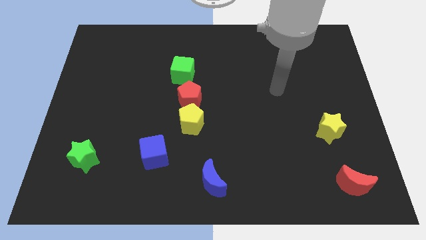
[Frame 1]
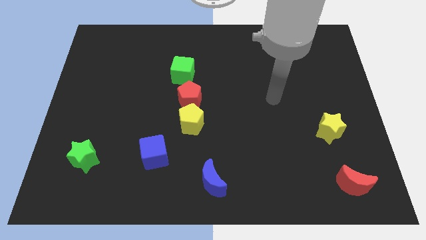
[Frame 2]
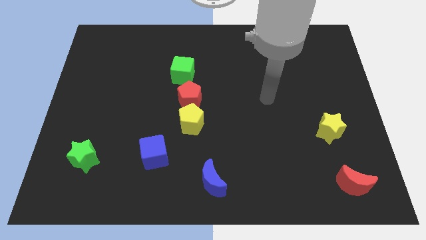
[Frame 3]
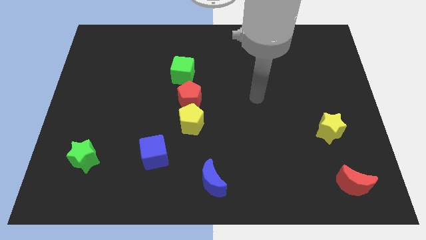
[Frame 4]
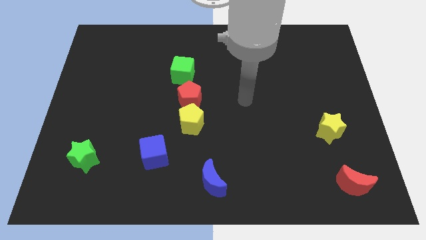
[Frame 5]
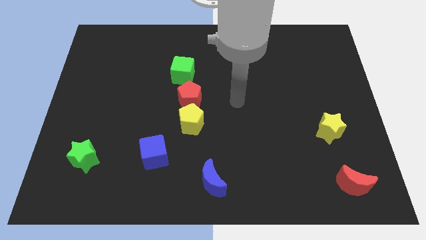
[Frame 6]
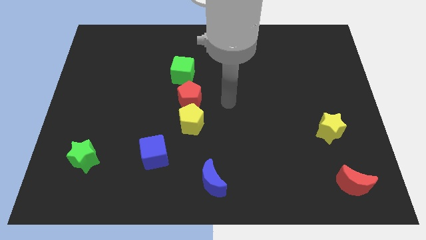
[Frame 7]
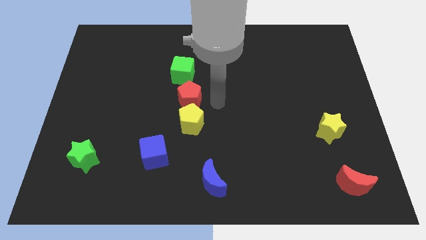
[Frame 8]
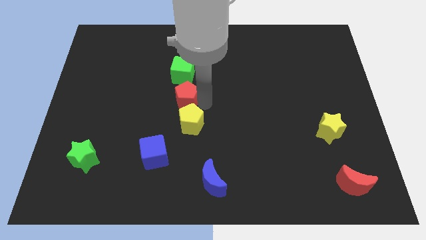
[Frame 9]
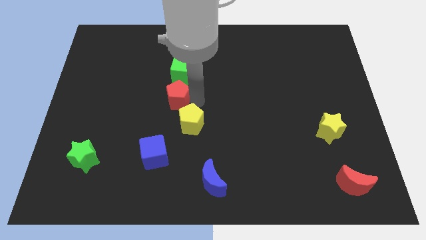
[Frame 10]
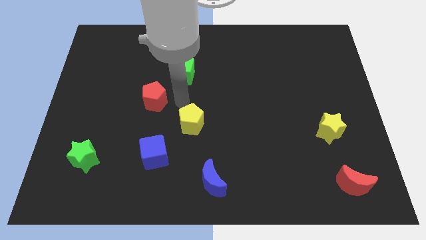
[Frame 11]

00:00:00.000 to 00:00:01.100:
separate the yellow pentagon from the red pentagon

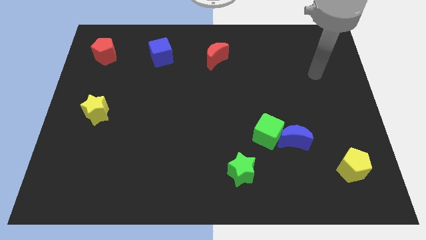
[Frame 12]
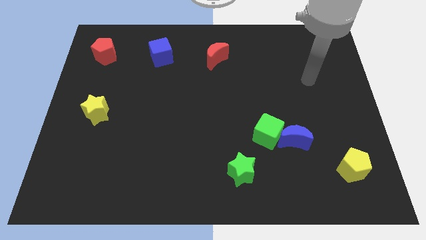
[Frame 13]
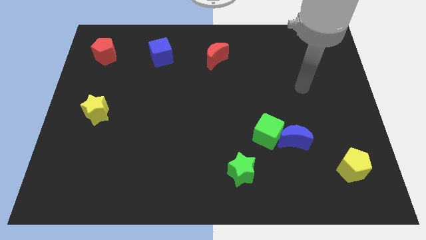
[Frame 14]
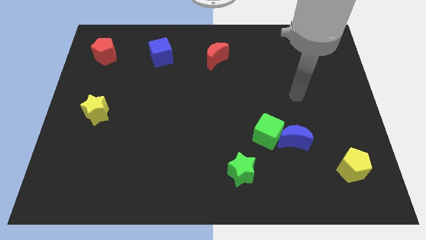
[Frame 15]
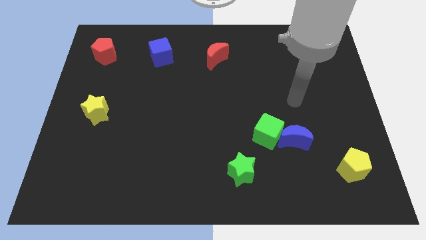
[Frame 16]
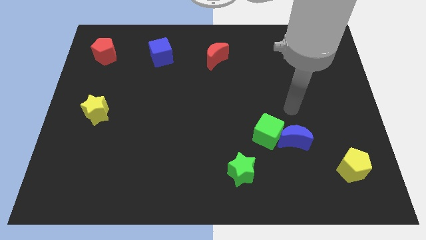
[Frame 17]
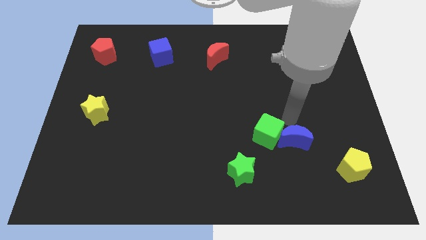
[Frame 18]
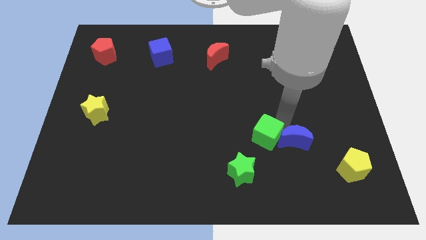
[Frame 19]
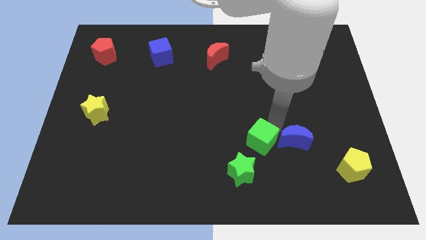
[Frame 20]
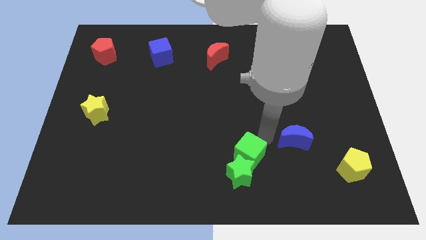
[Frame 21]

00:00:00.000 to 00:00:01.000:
separate the blue moon from the green cube

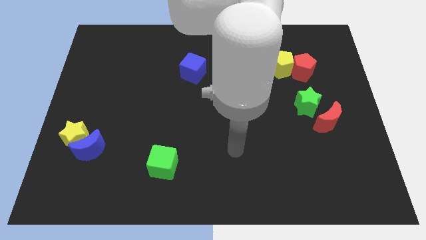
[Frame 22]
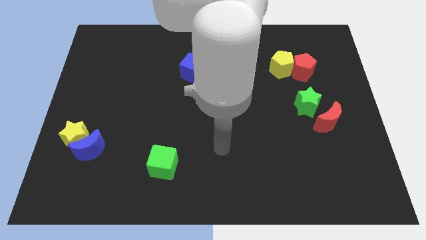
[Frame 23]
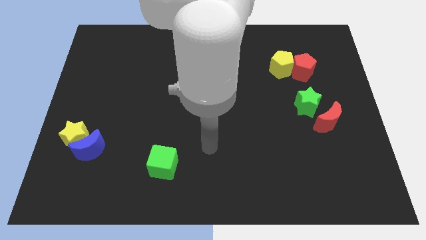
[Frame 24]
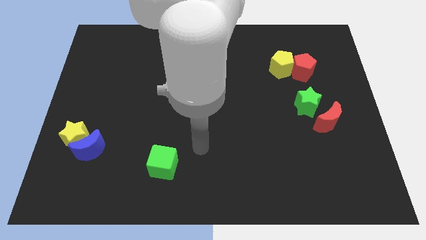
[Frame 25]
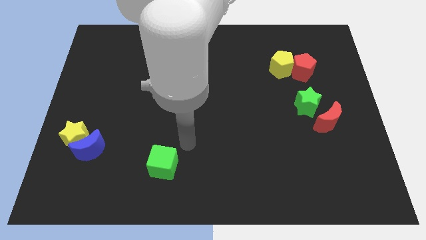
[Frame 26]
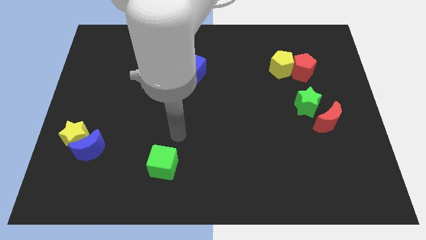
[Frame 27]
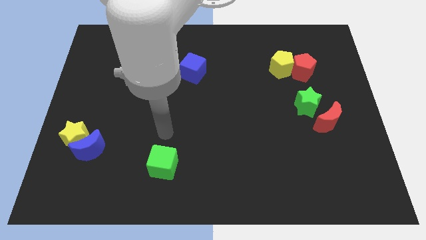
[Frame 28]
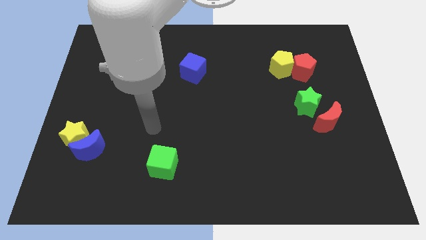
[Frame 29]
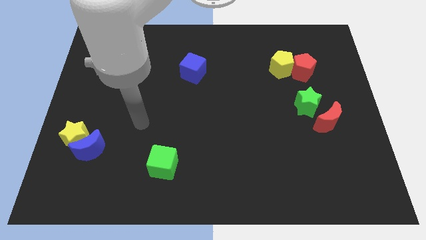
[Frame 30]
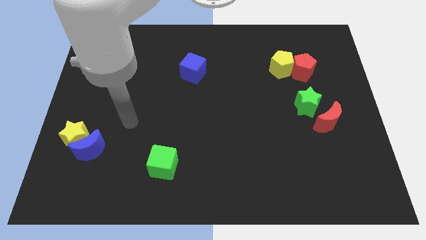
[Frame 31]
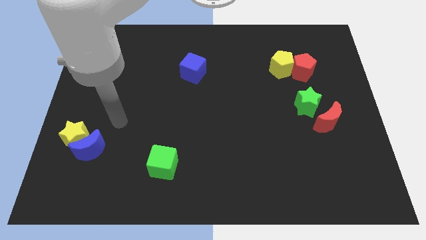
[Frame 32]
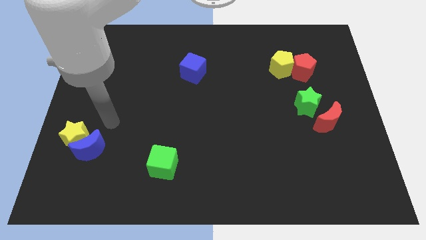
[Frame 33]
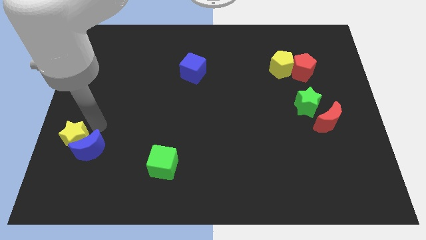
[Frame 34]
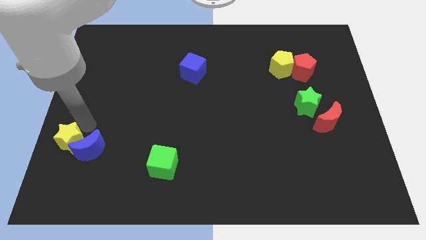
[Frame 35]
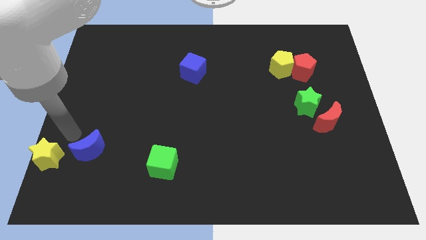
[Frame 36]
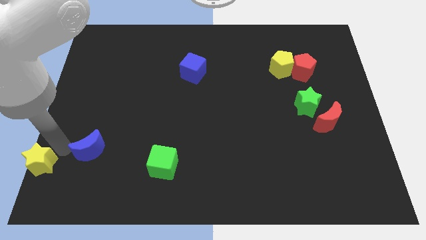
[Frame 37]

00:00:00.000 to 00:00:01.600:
move the blue moon away from the yellow star

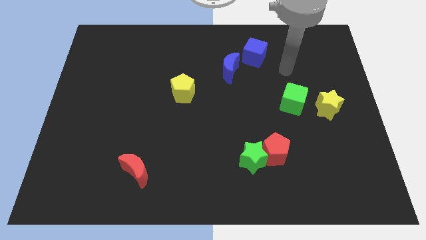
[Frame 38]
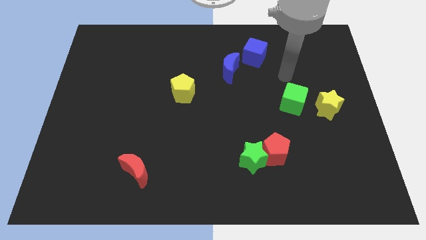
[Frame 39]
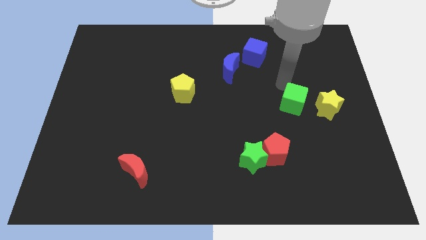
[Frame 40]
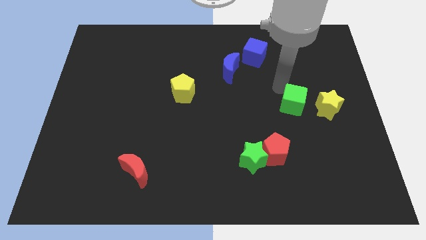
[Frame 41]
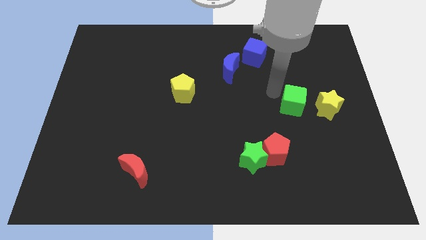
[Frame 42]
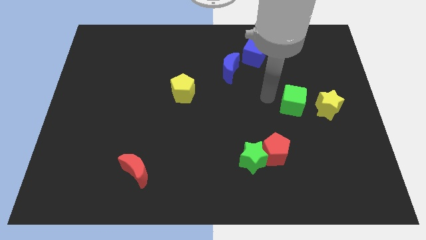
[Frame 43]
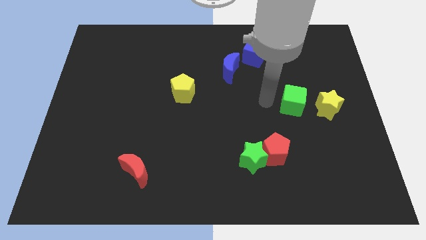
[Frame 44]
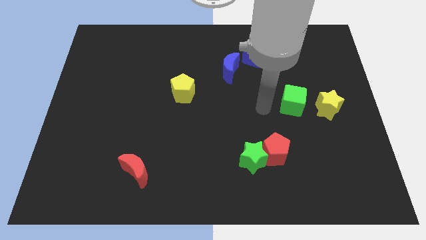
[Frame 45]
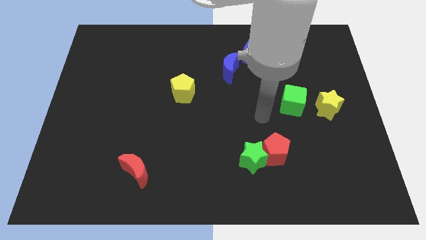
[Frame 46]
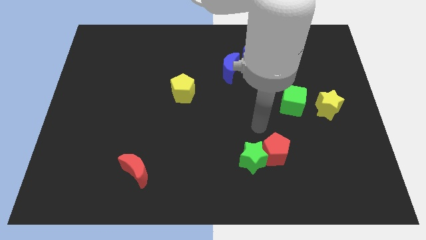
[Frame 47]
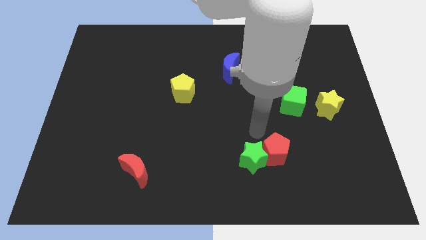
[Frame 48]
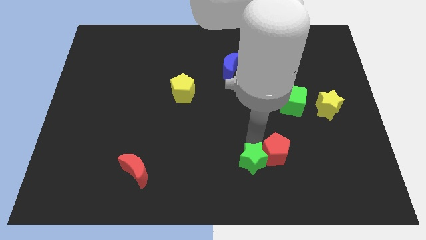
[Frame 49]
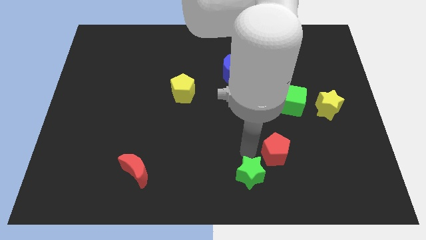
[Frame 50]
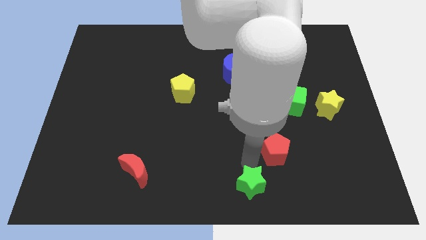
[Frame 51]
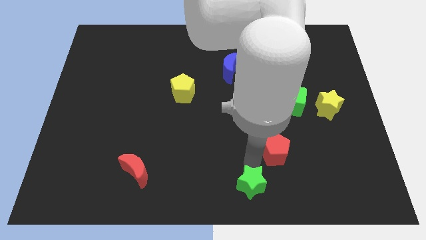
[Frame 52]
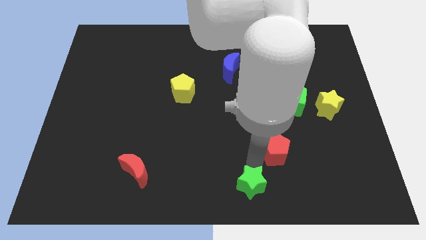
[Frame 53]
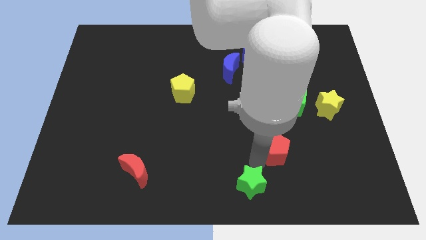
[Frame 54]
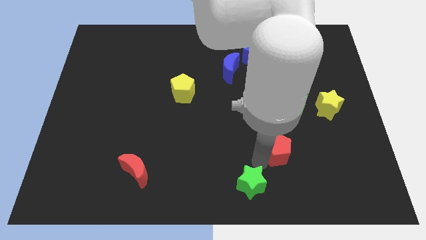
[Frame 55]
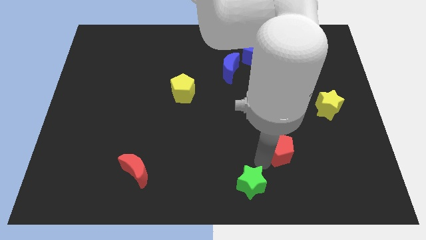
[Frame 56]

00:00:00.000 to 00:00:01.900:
separate the red pentagon from the green star

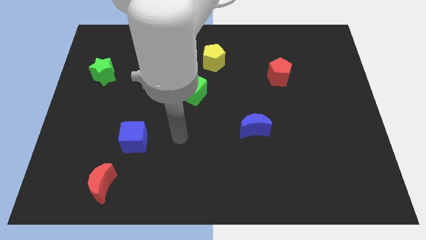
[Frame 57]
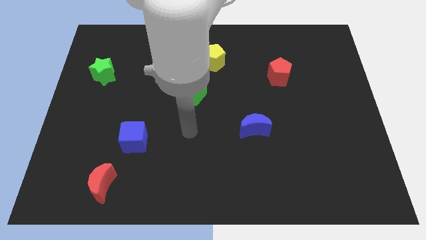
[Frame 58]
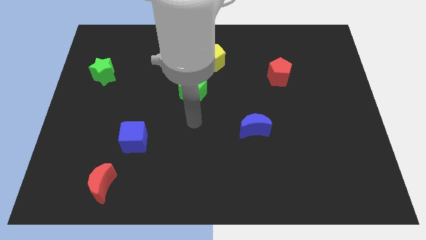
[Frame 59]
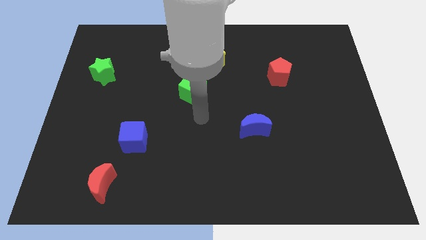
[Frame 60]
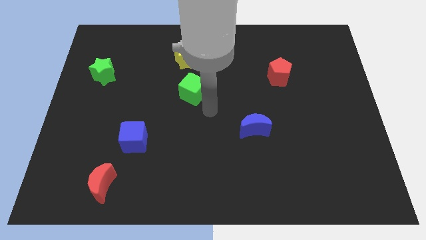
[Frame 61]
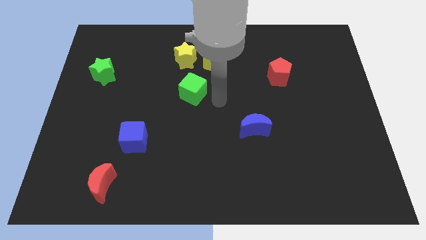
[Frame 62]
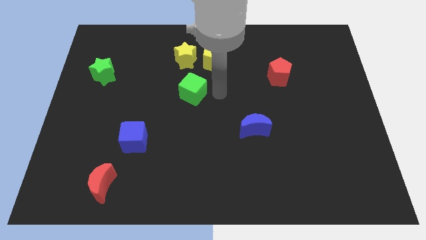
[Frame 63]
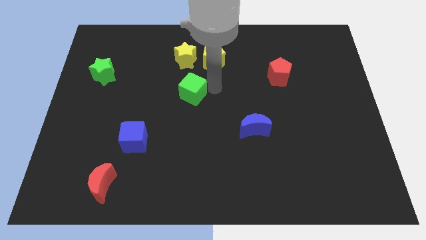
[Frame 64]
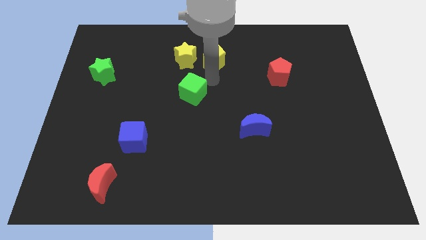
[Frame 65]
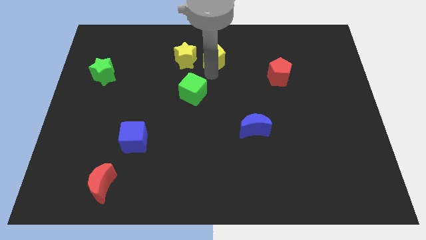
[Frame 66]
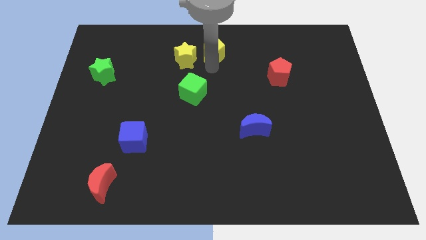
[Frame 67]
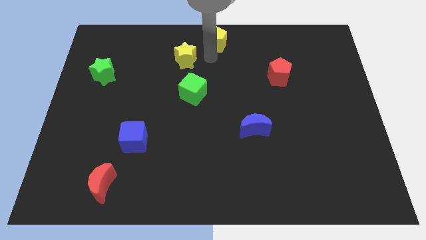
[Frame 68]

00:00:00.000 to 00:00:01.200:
separate the yellow star from the yellow pentagon

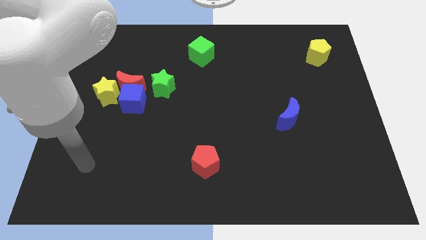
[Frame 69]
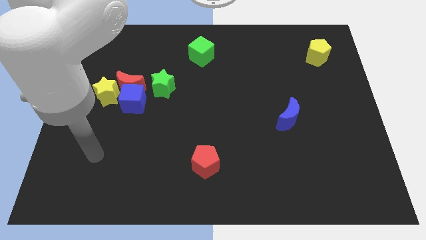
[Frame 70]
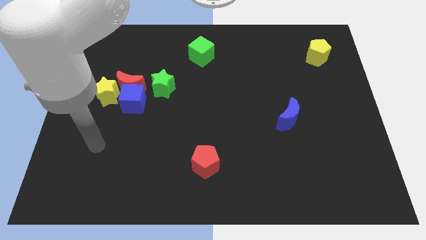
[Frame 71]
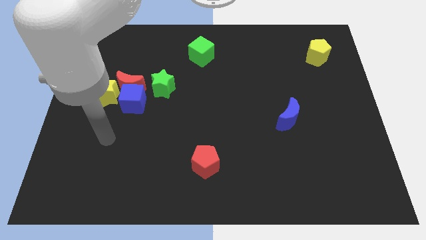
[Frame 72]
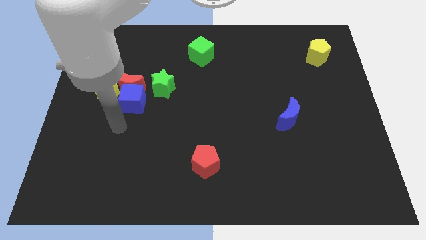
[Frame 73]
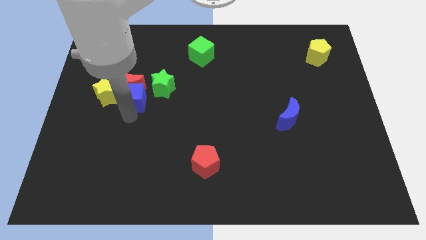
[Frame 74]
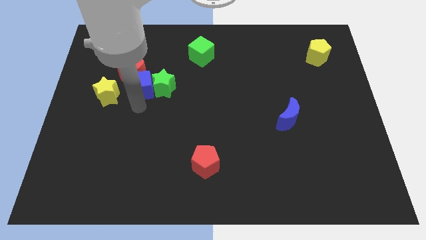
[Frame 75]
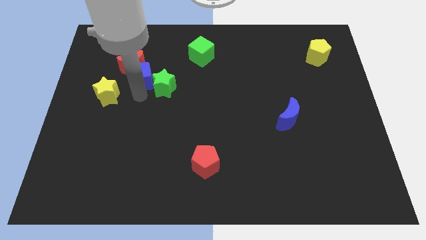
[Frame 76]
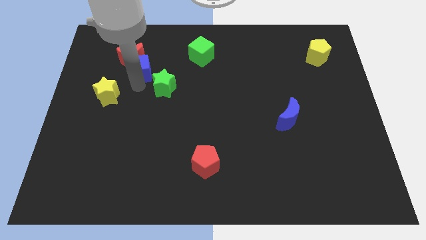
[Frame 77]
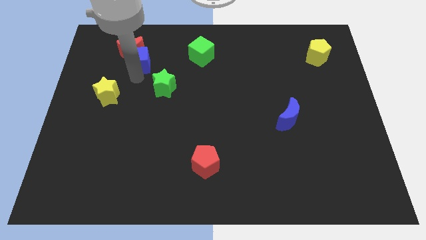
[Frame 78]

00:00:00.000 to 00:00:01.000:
pull the red moon apart from the blue cube, yellow star, and green star

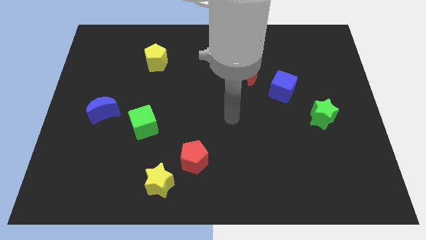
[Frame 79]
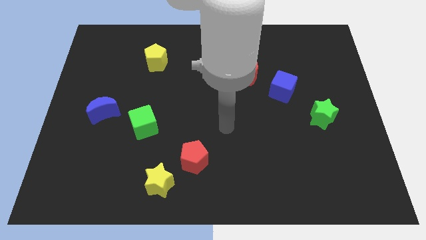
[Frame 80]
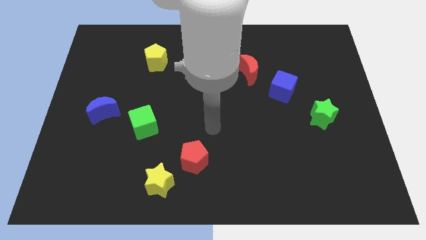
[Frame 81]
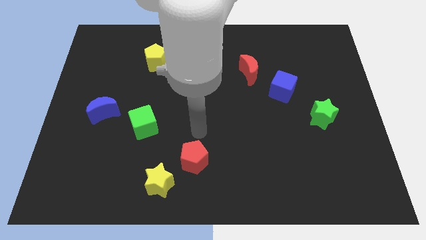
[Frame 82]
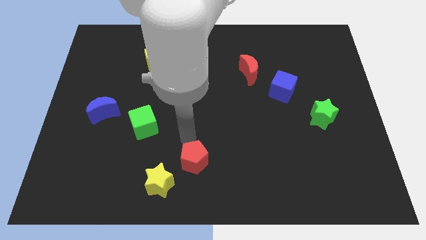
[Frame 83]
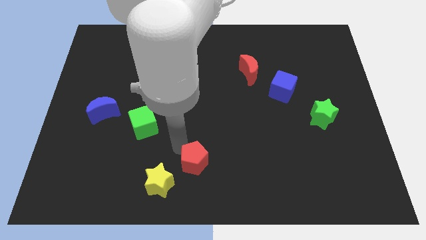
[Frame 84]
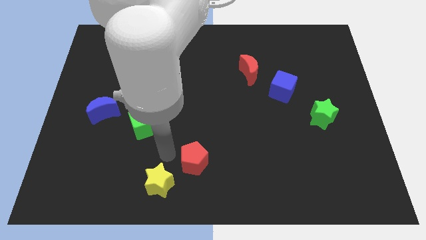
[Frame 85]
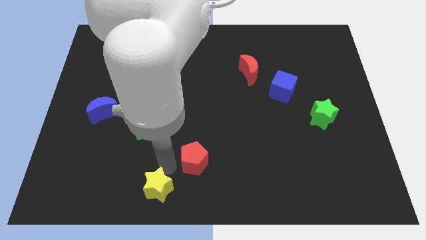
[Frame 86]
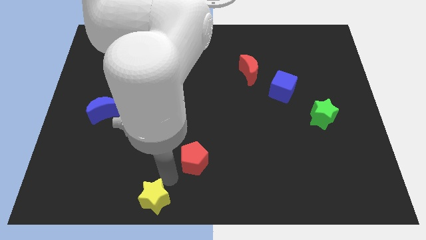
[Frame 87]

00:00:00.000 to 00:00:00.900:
separate the red pentagon from the yellow star

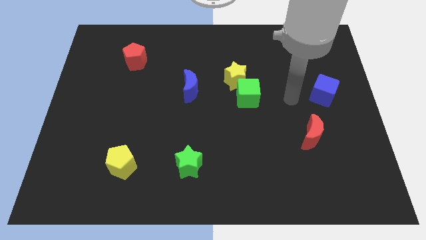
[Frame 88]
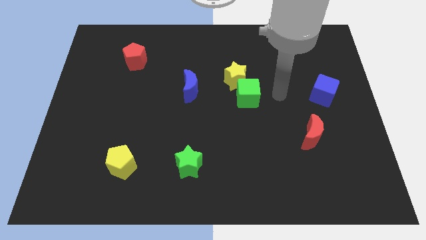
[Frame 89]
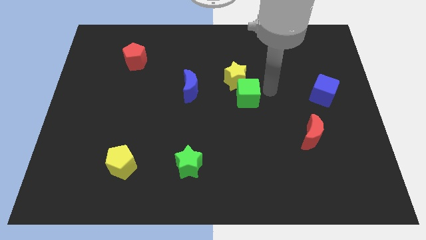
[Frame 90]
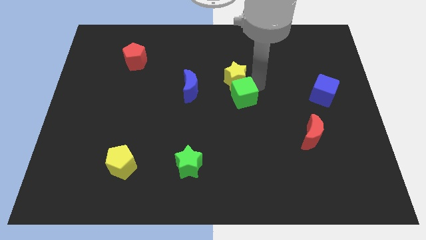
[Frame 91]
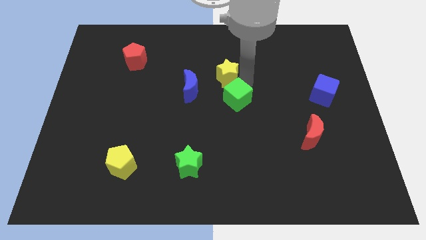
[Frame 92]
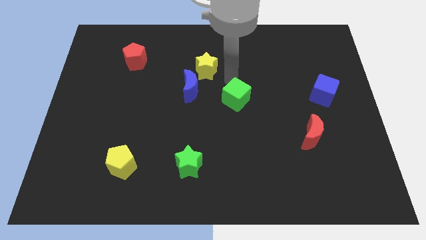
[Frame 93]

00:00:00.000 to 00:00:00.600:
separate the green cube from the yellow star
